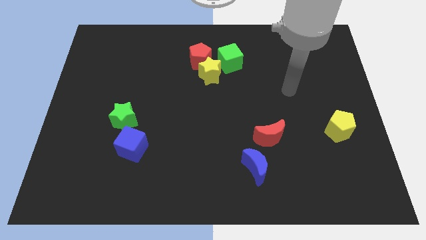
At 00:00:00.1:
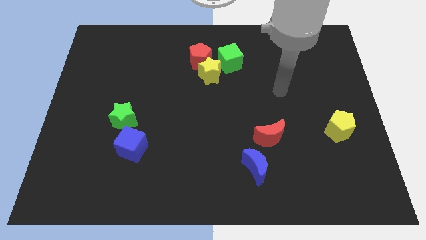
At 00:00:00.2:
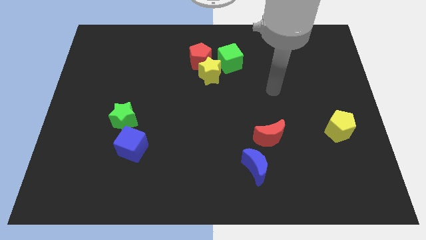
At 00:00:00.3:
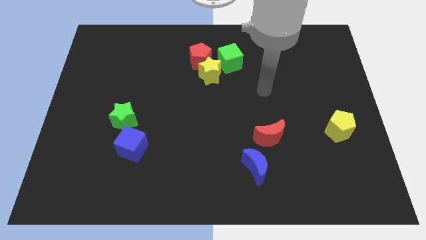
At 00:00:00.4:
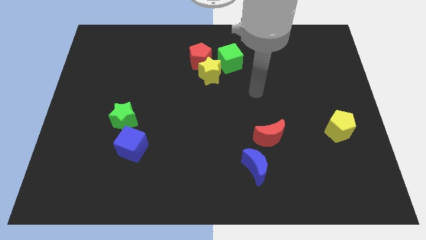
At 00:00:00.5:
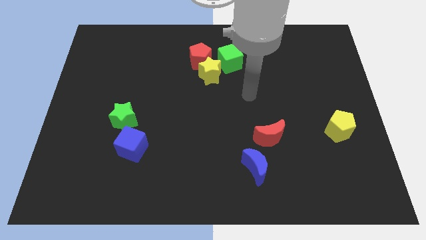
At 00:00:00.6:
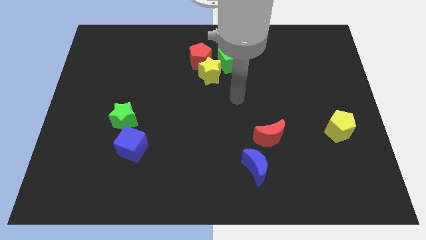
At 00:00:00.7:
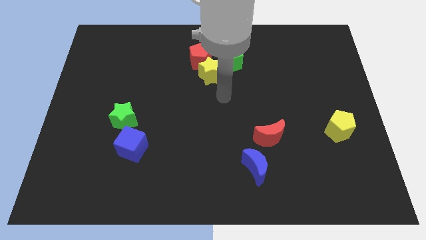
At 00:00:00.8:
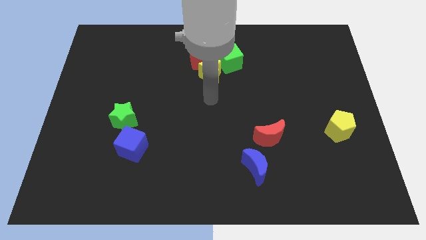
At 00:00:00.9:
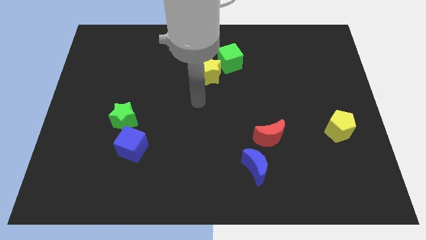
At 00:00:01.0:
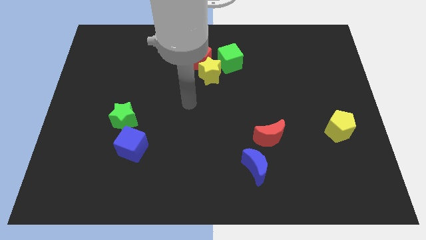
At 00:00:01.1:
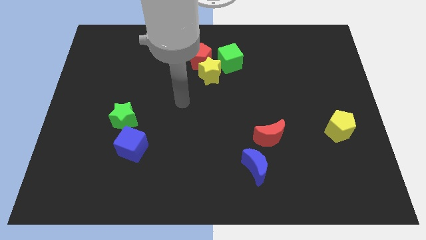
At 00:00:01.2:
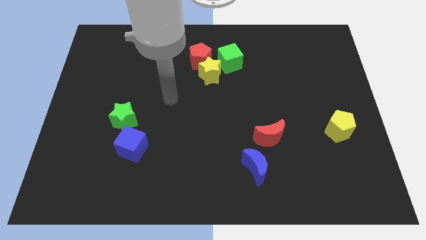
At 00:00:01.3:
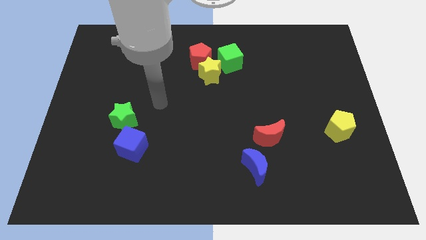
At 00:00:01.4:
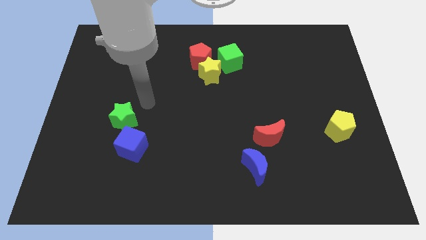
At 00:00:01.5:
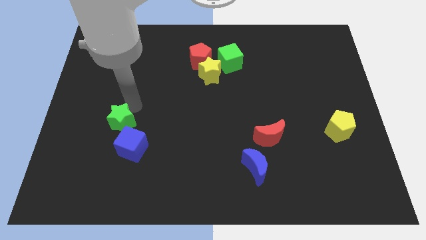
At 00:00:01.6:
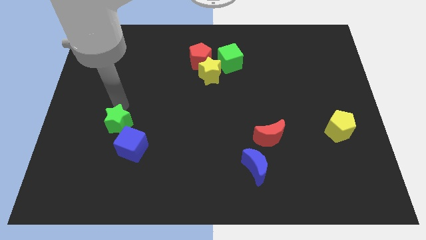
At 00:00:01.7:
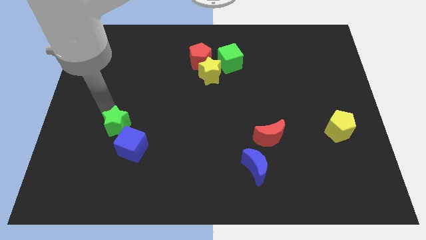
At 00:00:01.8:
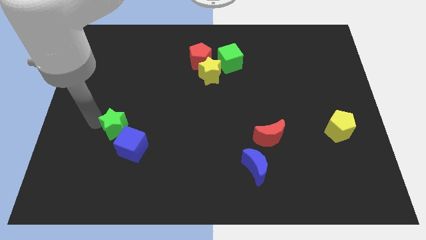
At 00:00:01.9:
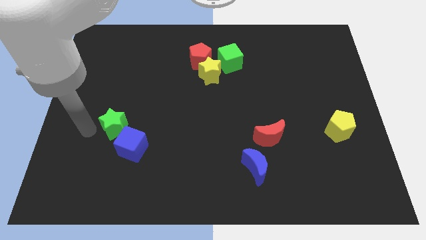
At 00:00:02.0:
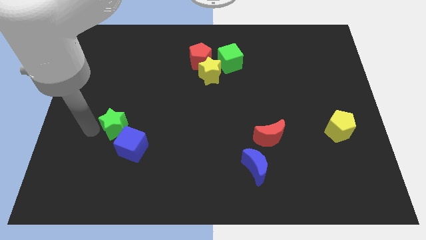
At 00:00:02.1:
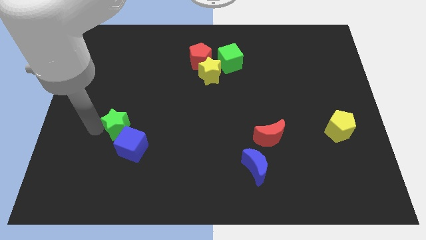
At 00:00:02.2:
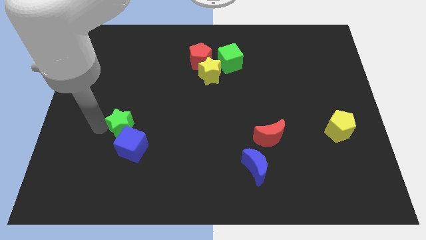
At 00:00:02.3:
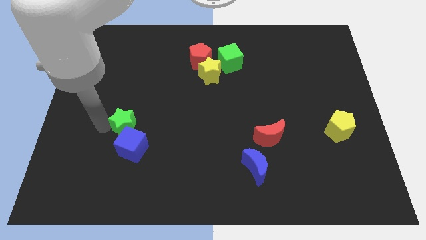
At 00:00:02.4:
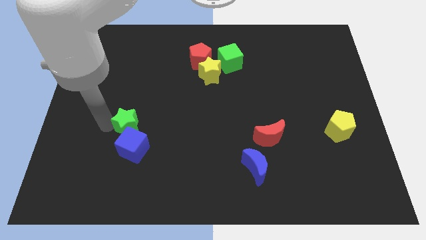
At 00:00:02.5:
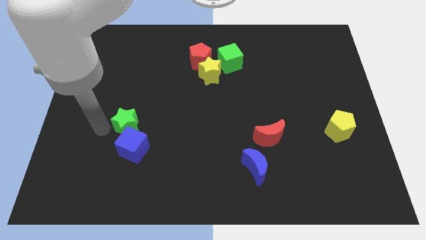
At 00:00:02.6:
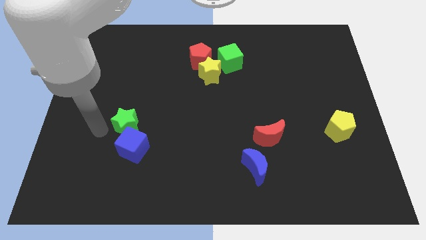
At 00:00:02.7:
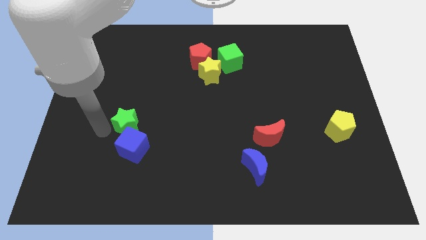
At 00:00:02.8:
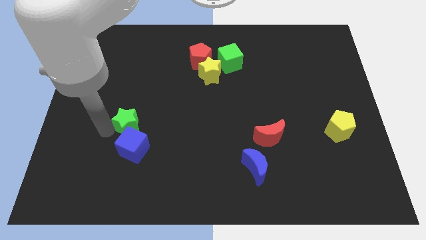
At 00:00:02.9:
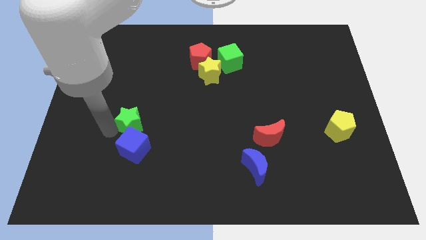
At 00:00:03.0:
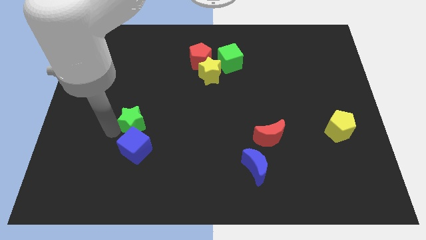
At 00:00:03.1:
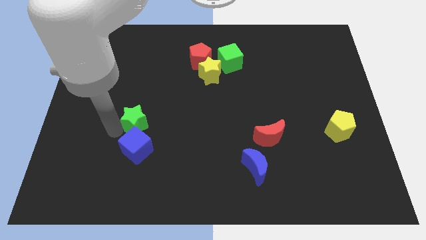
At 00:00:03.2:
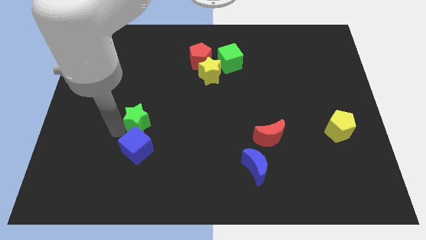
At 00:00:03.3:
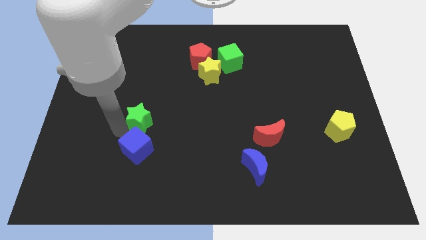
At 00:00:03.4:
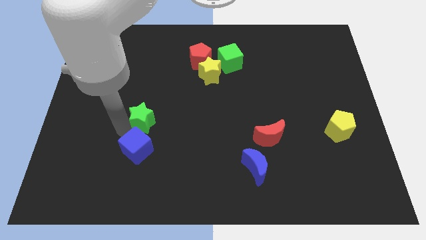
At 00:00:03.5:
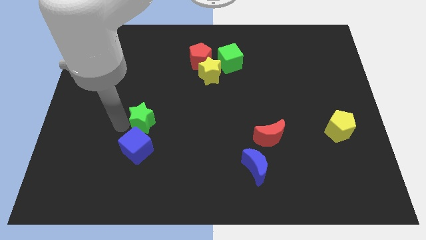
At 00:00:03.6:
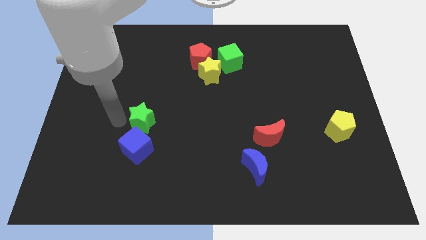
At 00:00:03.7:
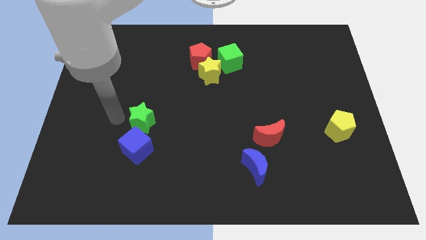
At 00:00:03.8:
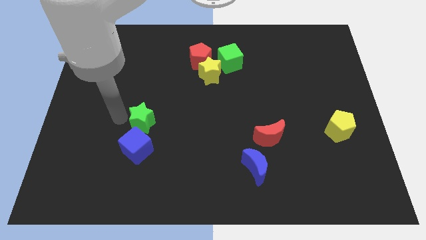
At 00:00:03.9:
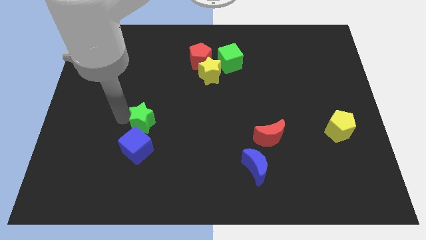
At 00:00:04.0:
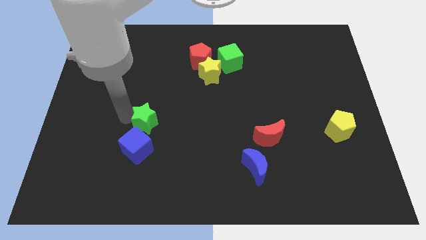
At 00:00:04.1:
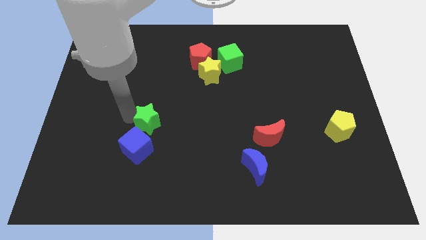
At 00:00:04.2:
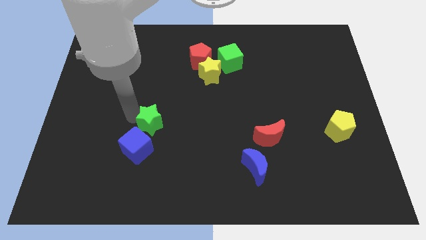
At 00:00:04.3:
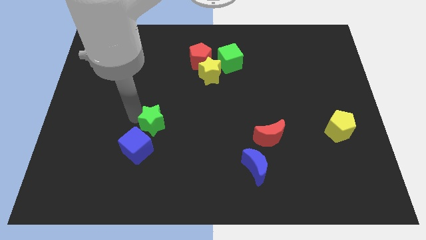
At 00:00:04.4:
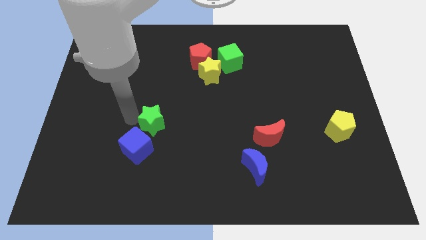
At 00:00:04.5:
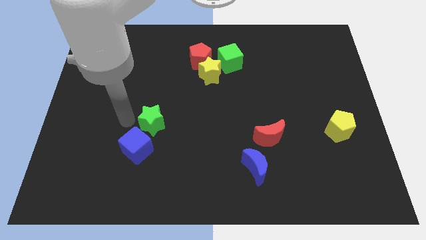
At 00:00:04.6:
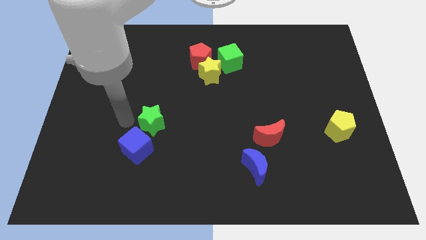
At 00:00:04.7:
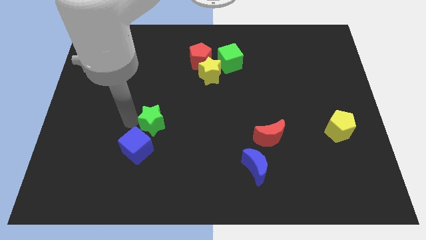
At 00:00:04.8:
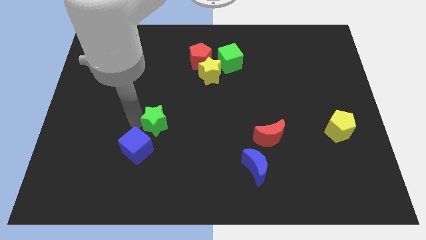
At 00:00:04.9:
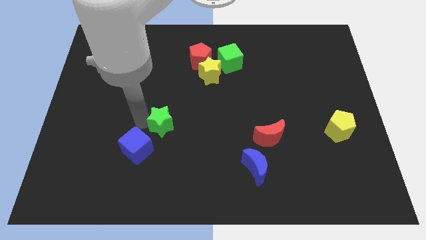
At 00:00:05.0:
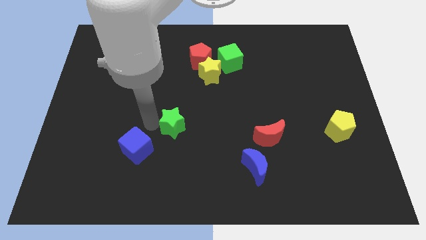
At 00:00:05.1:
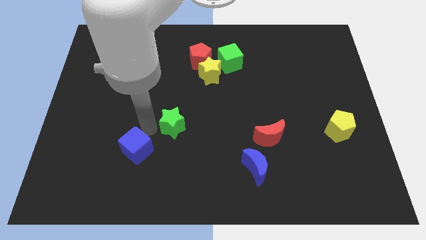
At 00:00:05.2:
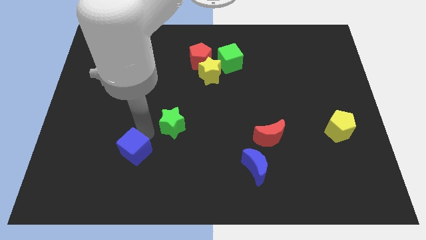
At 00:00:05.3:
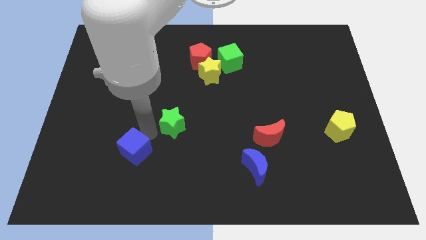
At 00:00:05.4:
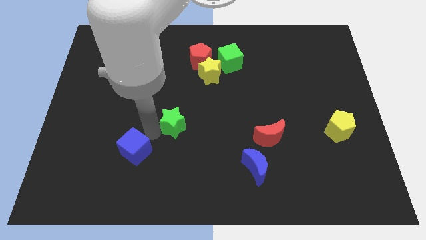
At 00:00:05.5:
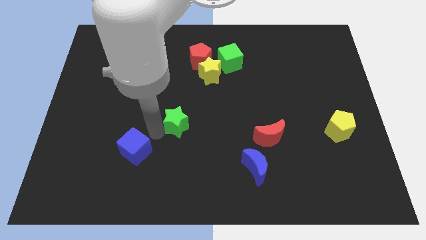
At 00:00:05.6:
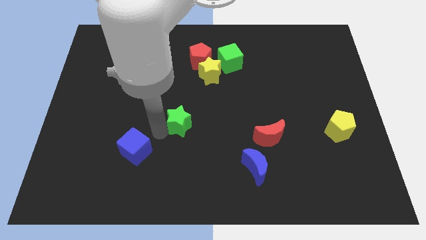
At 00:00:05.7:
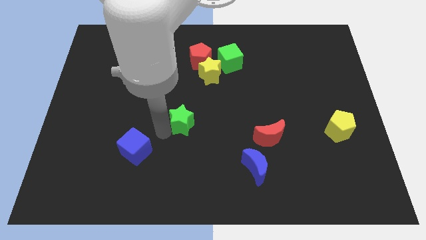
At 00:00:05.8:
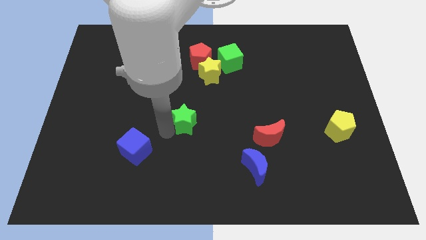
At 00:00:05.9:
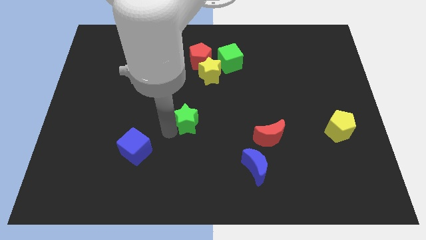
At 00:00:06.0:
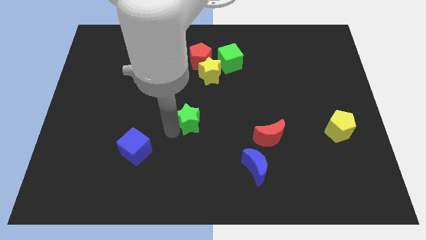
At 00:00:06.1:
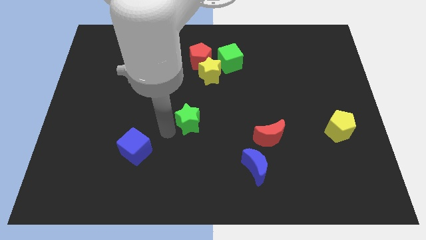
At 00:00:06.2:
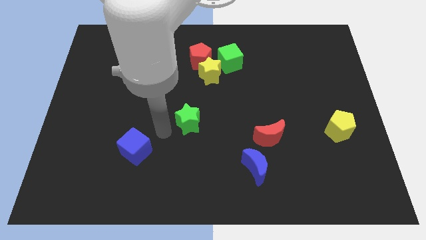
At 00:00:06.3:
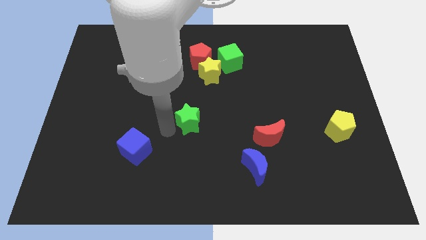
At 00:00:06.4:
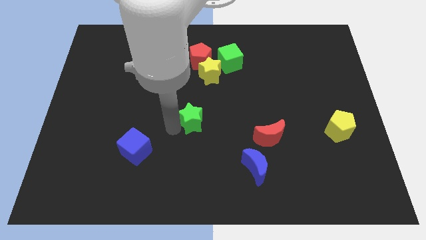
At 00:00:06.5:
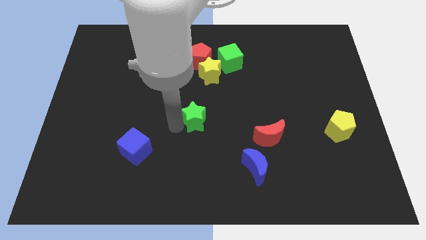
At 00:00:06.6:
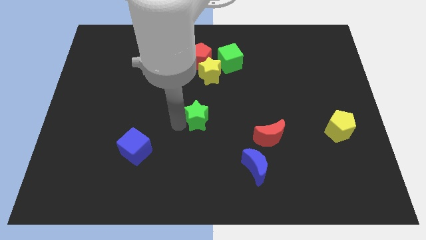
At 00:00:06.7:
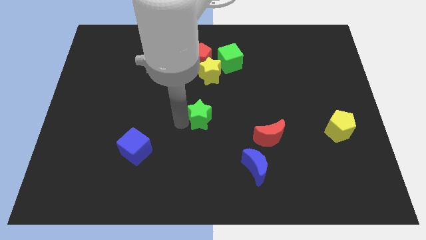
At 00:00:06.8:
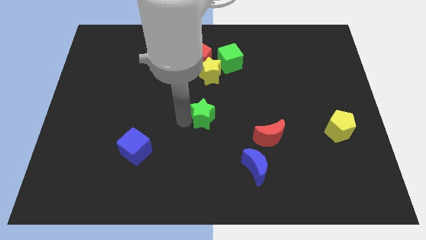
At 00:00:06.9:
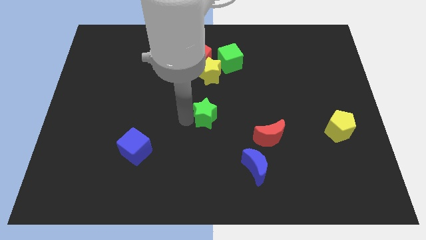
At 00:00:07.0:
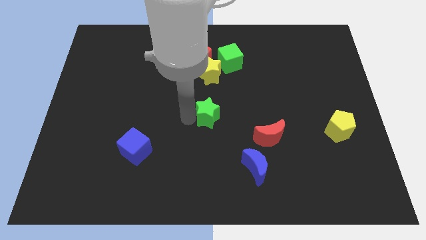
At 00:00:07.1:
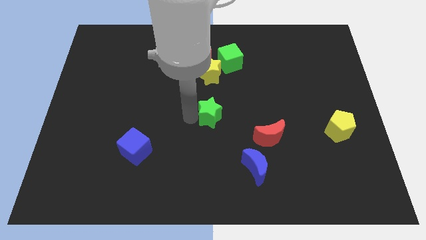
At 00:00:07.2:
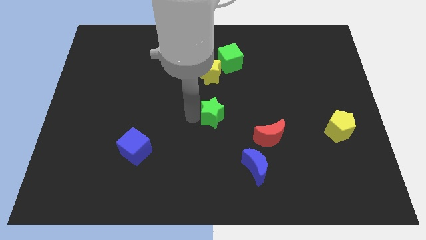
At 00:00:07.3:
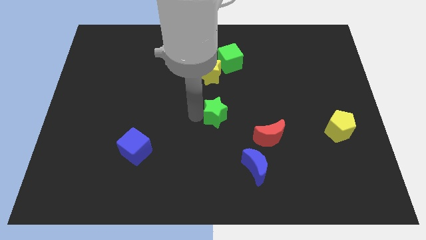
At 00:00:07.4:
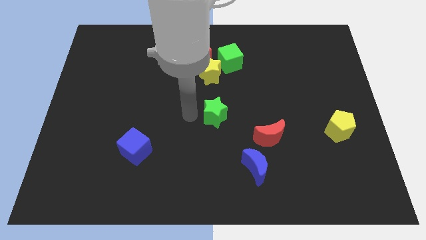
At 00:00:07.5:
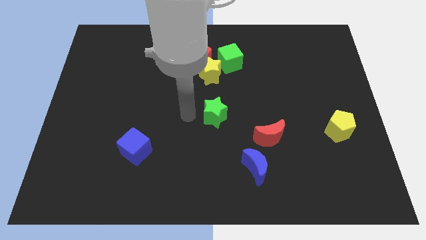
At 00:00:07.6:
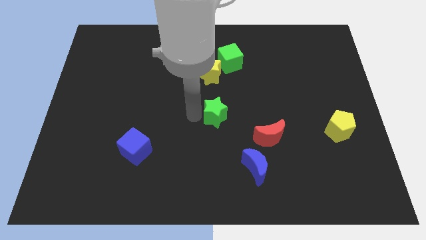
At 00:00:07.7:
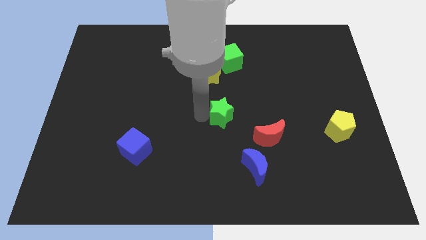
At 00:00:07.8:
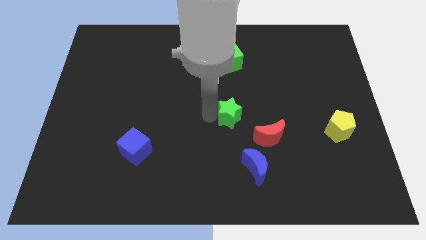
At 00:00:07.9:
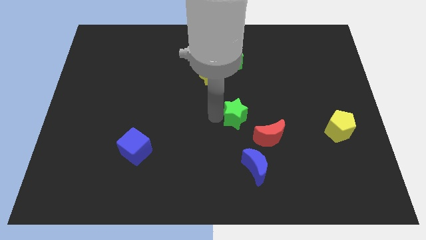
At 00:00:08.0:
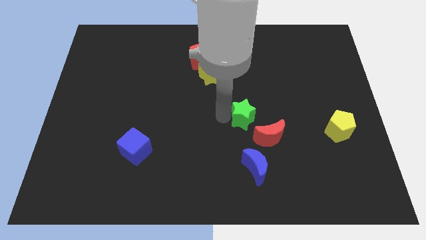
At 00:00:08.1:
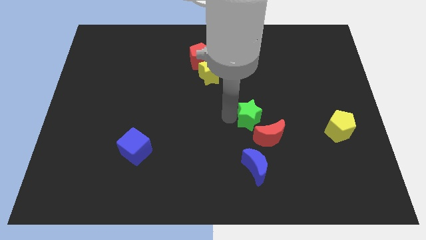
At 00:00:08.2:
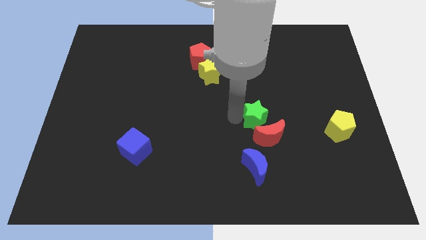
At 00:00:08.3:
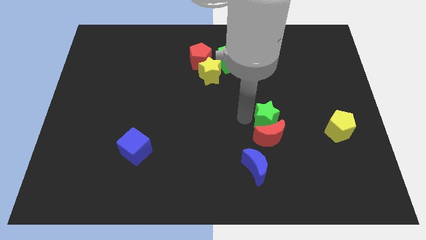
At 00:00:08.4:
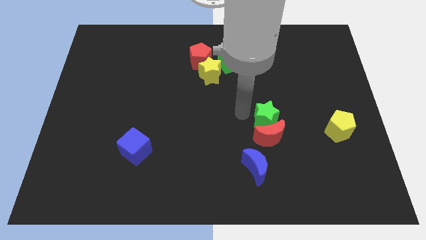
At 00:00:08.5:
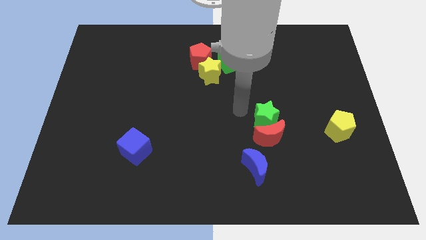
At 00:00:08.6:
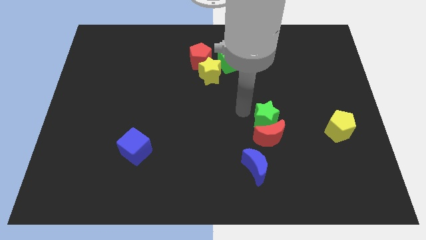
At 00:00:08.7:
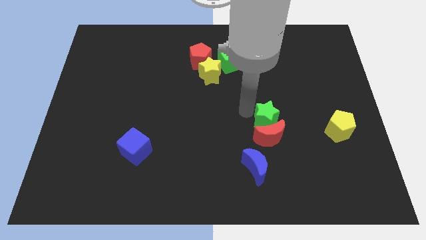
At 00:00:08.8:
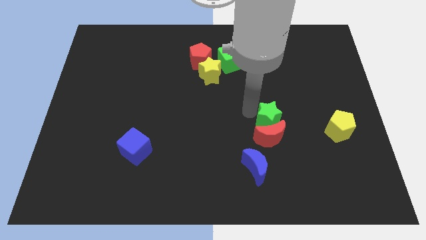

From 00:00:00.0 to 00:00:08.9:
slide the green star to the left side of the yellow pentagon
